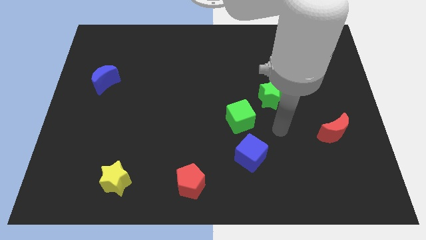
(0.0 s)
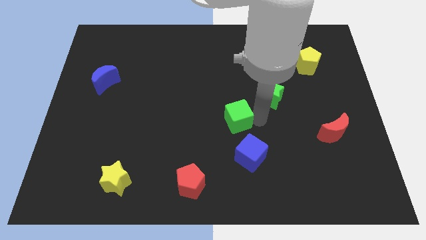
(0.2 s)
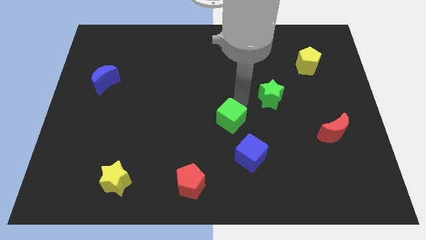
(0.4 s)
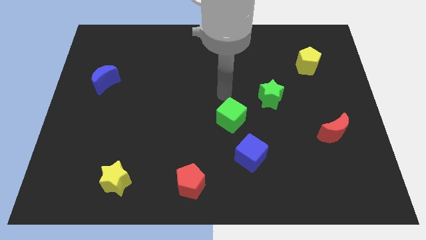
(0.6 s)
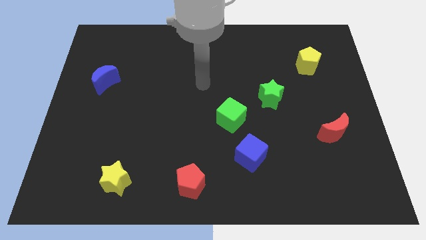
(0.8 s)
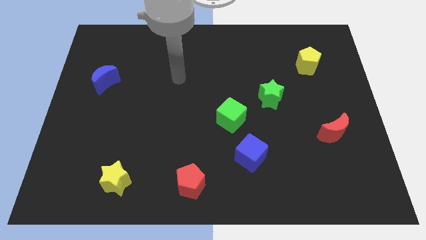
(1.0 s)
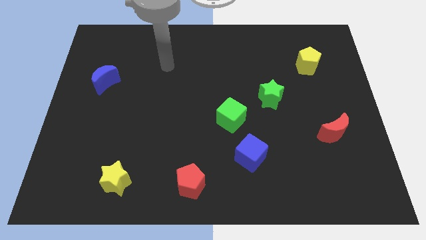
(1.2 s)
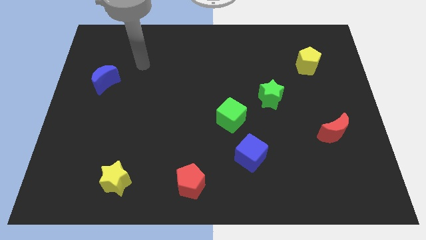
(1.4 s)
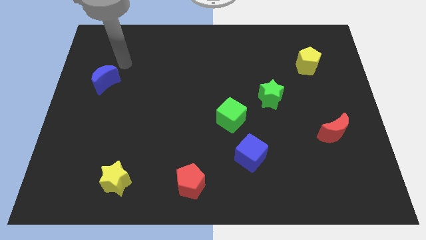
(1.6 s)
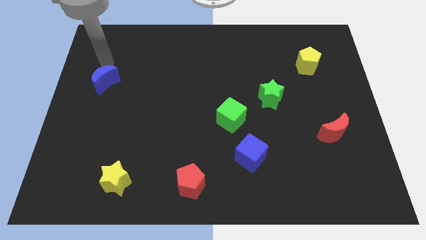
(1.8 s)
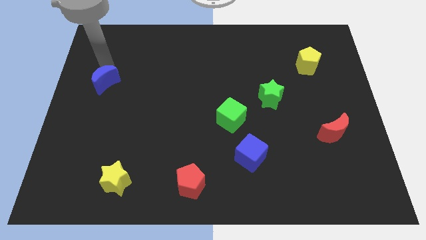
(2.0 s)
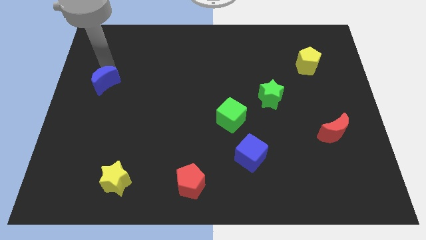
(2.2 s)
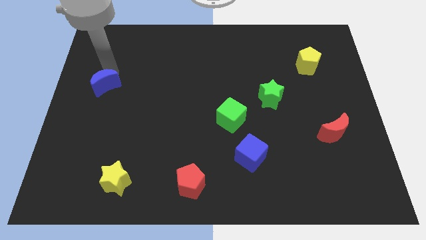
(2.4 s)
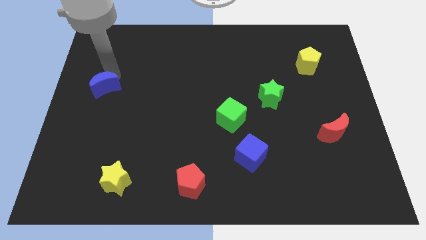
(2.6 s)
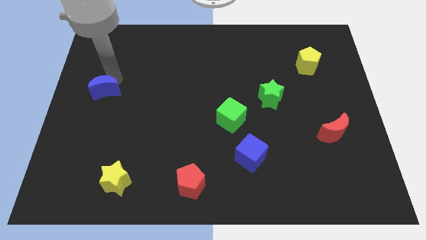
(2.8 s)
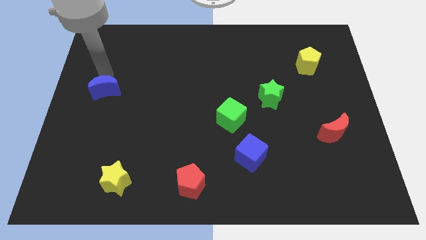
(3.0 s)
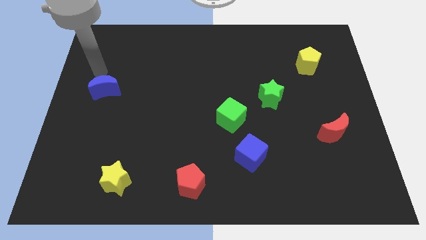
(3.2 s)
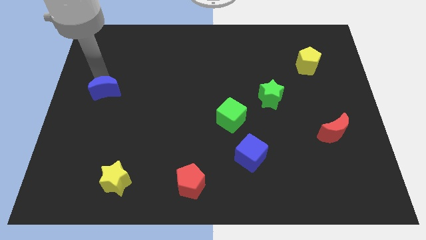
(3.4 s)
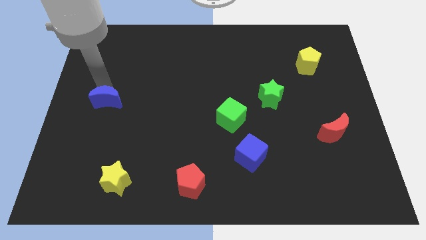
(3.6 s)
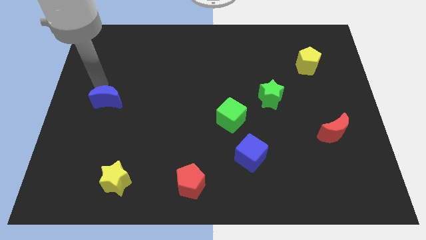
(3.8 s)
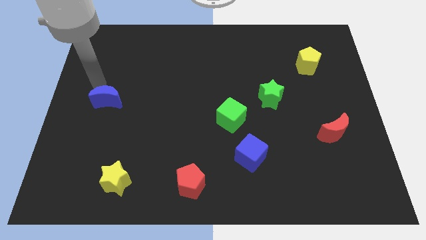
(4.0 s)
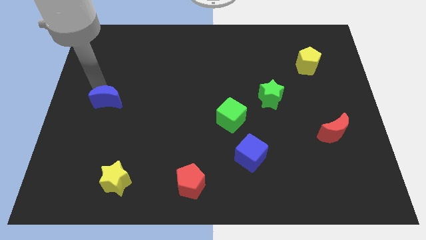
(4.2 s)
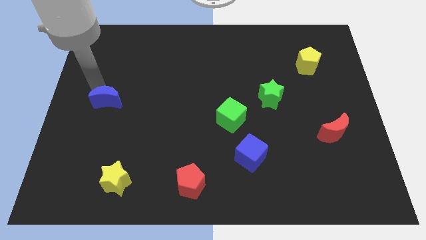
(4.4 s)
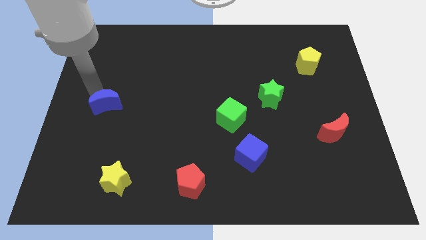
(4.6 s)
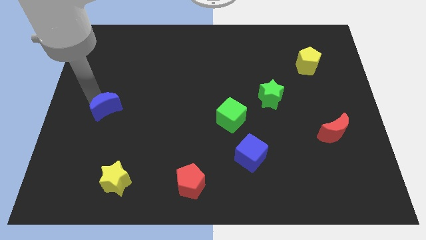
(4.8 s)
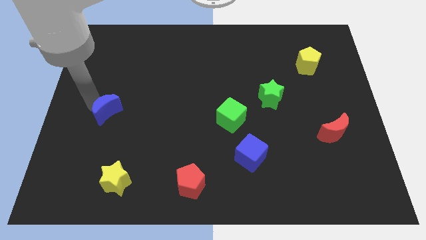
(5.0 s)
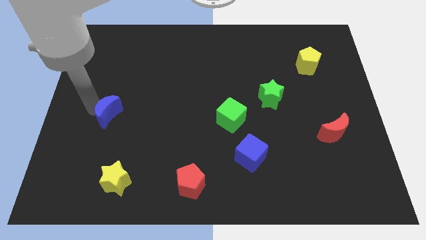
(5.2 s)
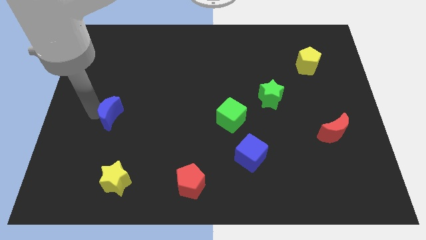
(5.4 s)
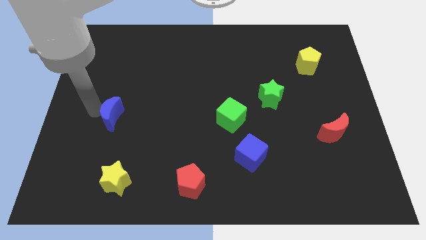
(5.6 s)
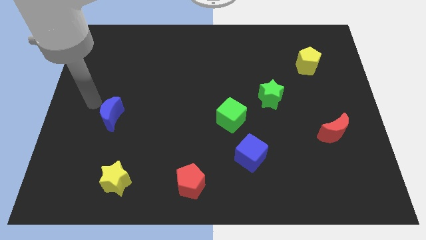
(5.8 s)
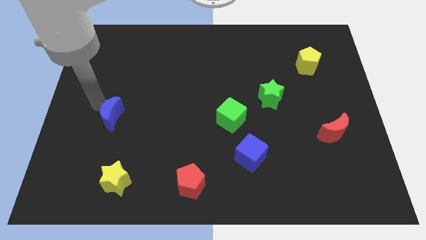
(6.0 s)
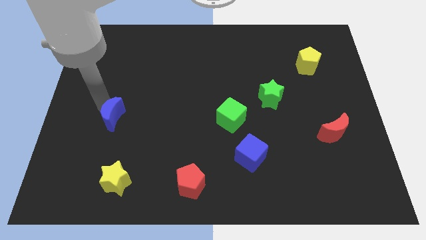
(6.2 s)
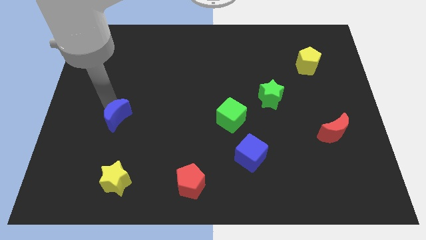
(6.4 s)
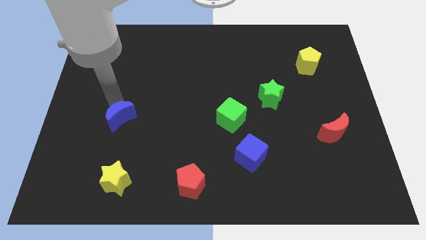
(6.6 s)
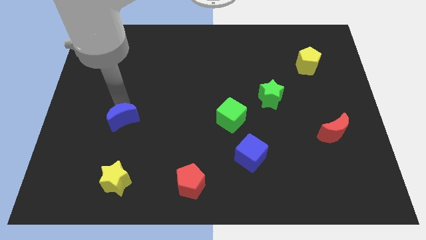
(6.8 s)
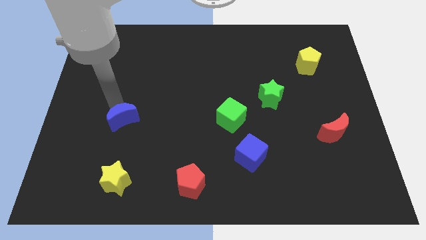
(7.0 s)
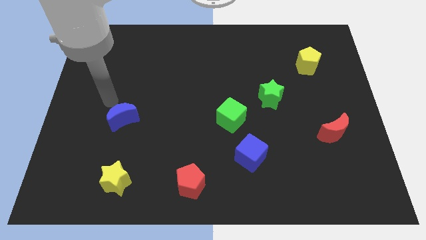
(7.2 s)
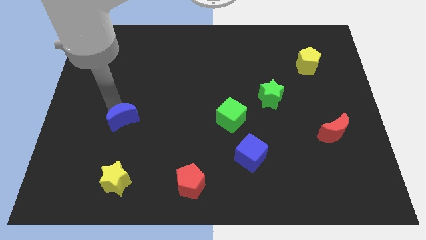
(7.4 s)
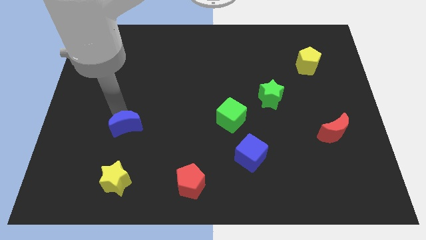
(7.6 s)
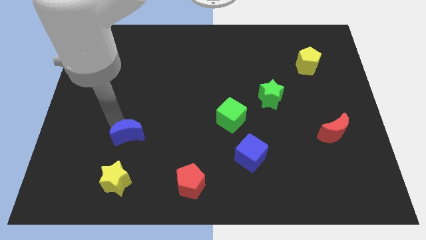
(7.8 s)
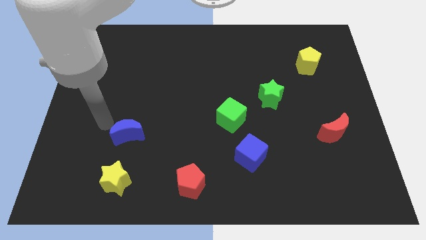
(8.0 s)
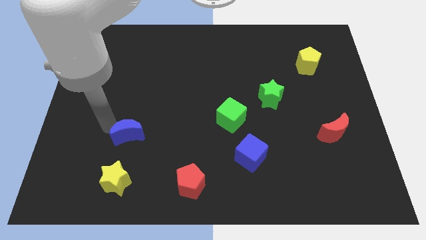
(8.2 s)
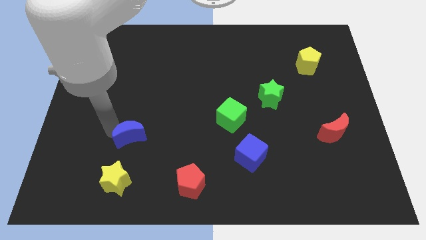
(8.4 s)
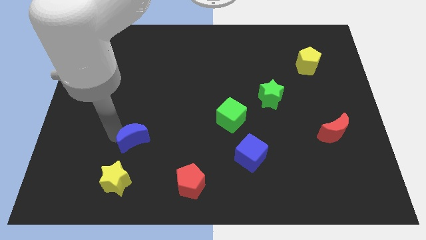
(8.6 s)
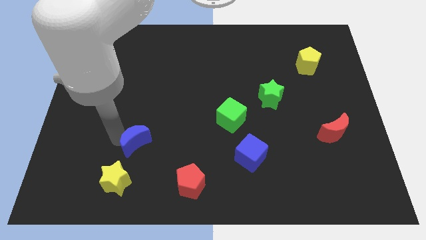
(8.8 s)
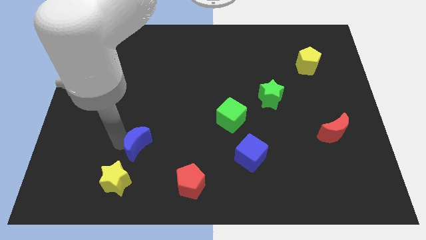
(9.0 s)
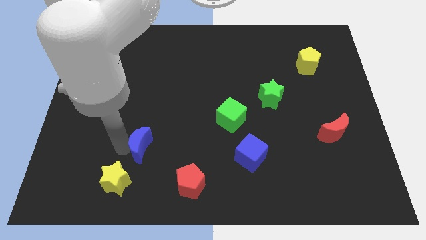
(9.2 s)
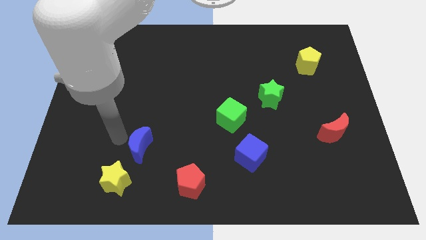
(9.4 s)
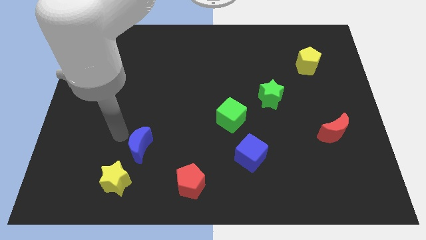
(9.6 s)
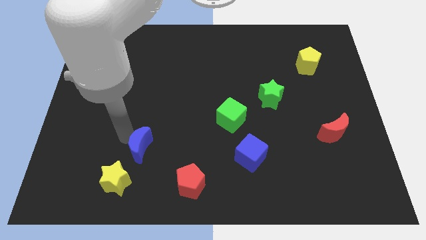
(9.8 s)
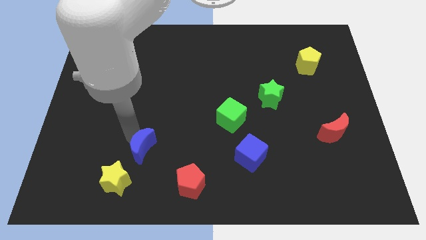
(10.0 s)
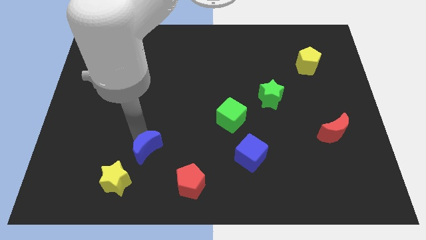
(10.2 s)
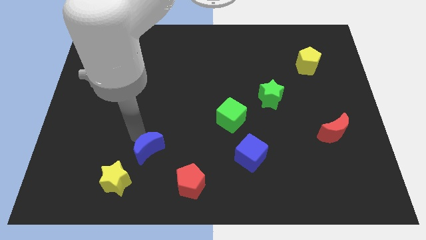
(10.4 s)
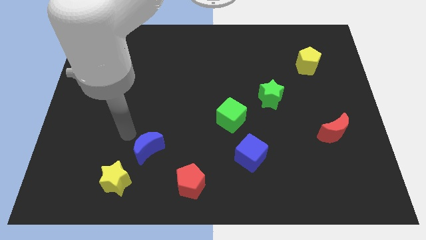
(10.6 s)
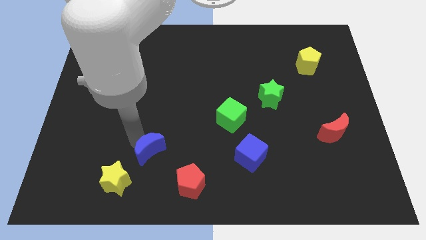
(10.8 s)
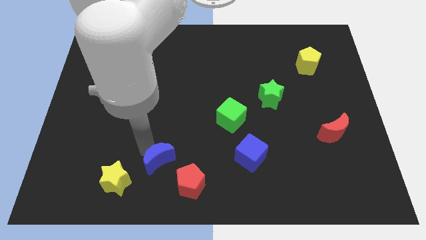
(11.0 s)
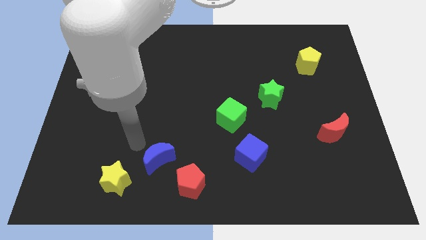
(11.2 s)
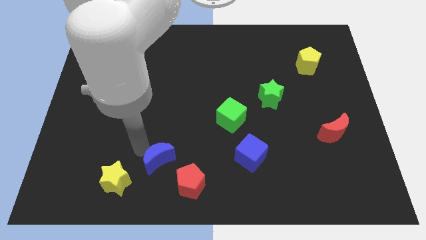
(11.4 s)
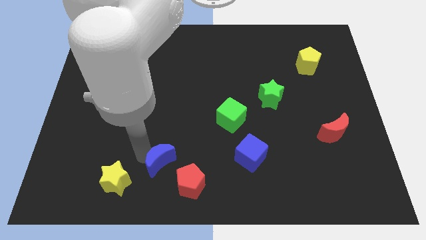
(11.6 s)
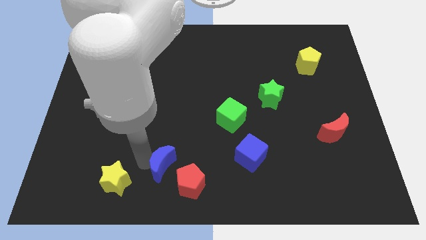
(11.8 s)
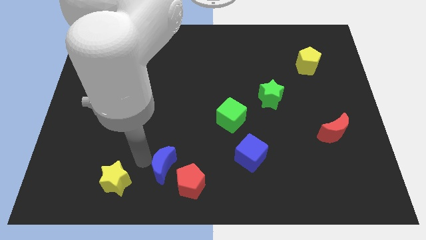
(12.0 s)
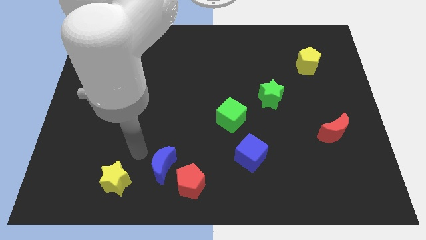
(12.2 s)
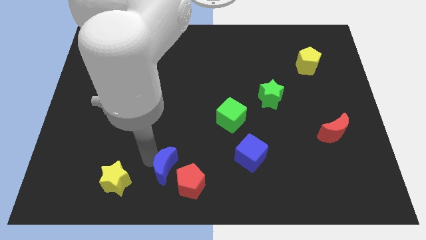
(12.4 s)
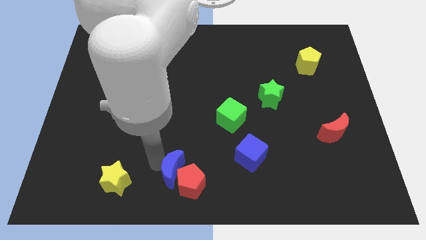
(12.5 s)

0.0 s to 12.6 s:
slide the blue moon next to the red pentagon

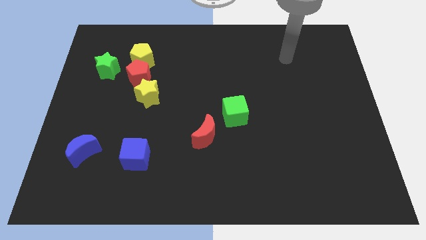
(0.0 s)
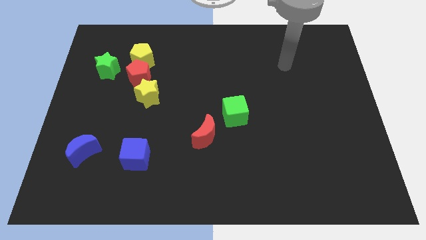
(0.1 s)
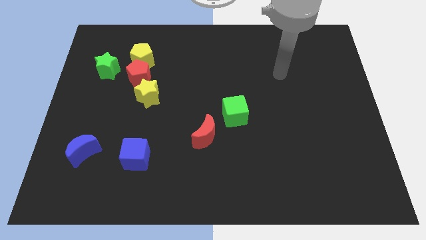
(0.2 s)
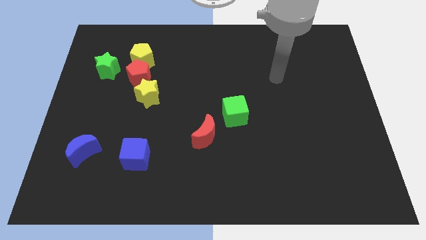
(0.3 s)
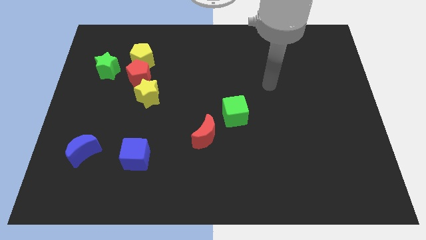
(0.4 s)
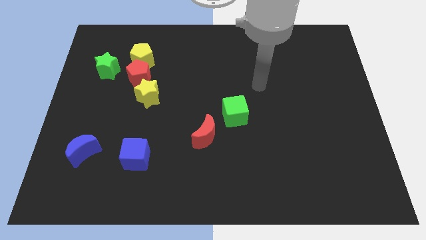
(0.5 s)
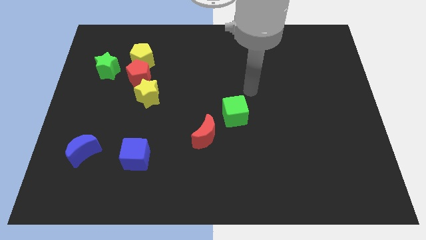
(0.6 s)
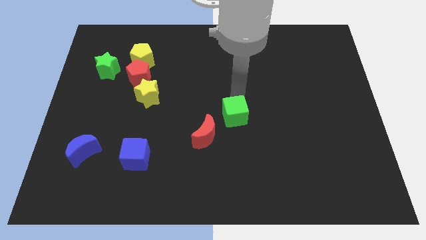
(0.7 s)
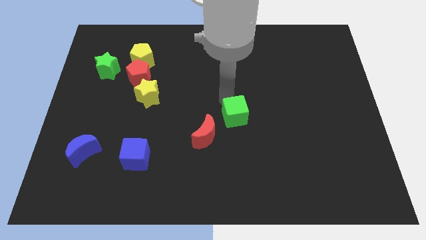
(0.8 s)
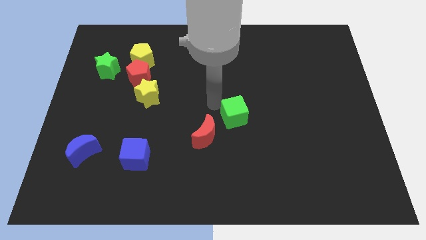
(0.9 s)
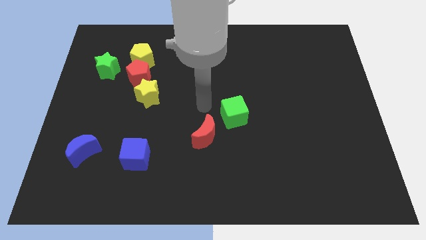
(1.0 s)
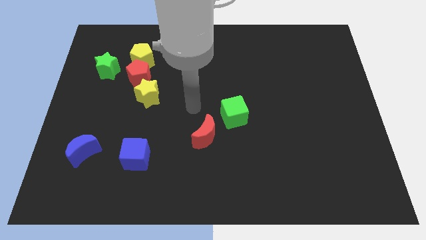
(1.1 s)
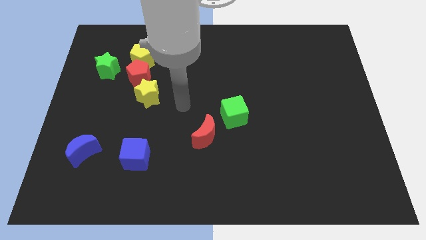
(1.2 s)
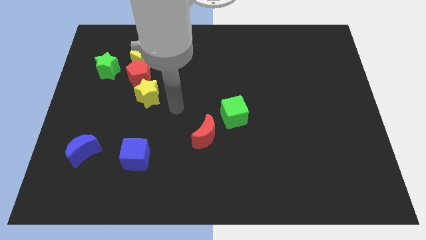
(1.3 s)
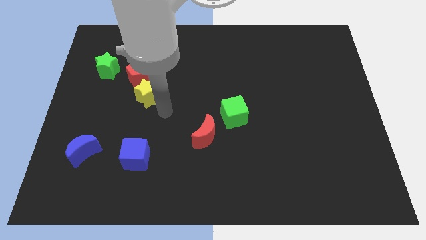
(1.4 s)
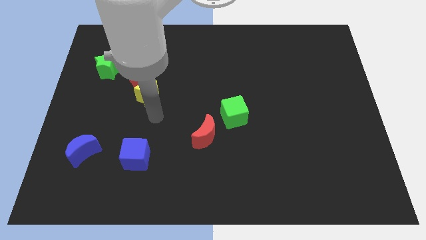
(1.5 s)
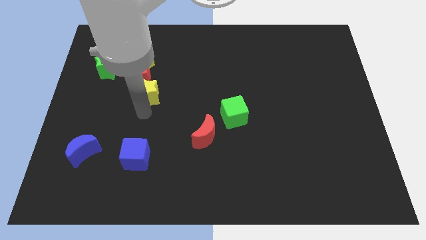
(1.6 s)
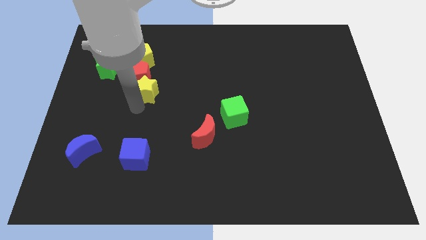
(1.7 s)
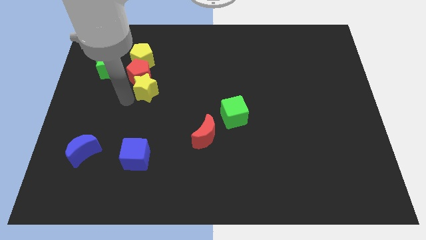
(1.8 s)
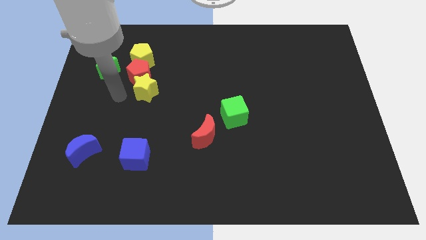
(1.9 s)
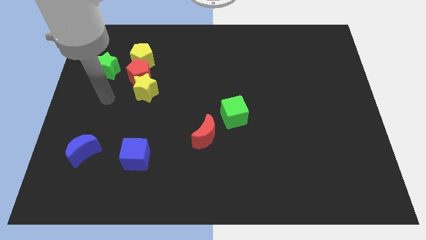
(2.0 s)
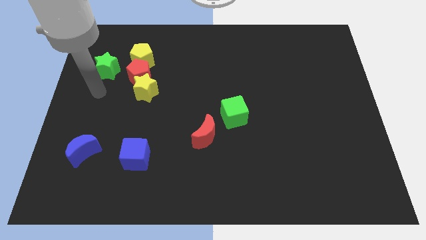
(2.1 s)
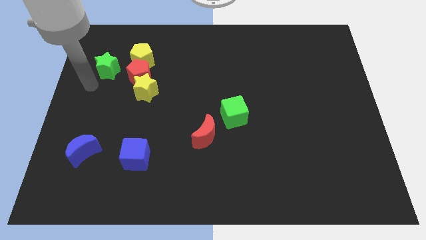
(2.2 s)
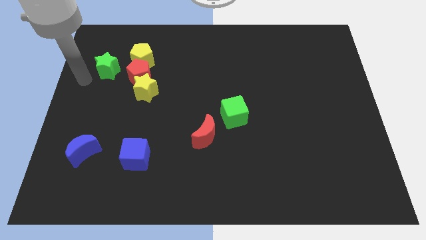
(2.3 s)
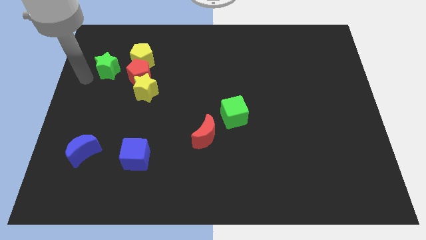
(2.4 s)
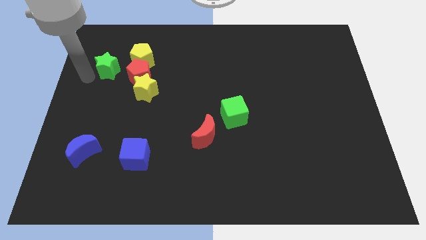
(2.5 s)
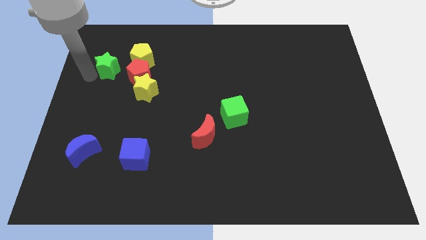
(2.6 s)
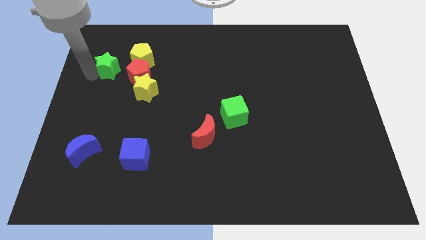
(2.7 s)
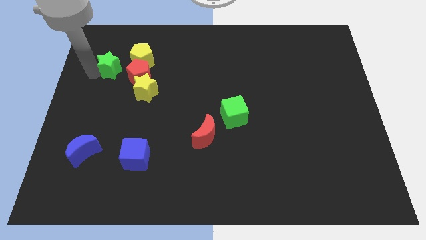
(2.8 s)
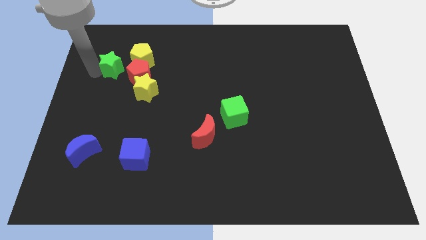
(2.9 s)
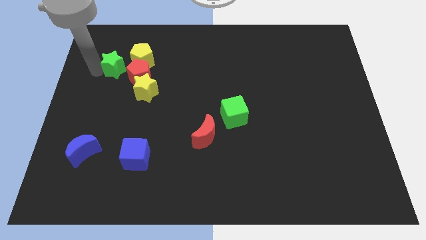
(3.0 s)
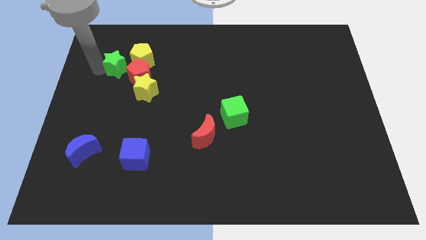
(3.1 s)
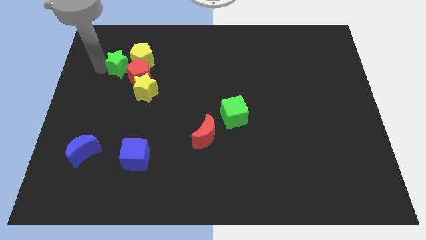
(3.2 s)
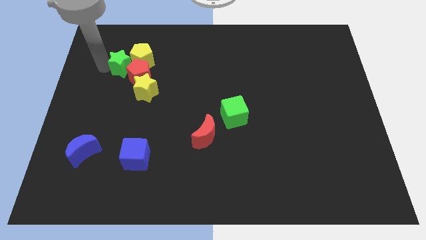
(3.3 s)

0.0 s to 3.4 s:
push the green star towards the yellow pentagon
